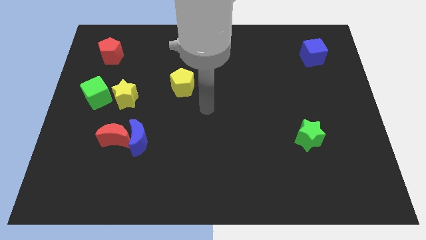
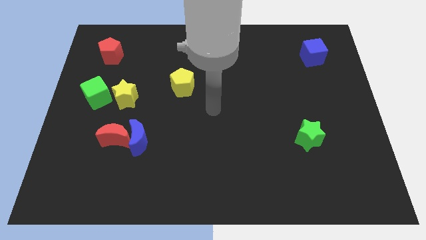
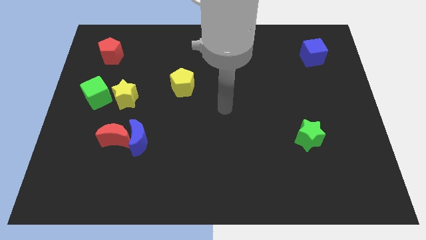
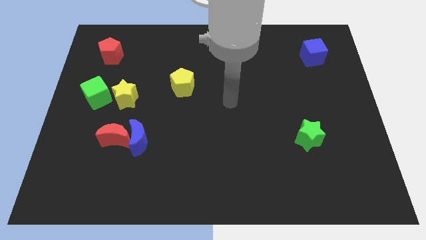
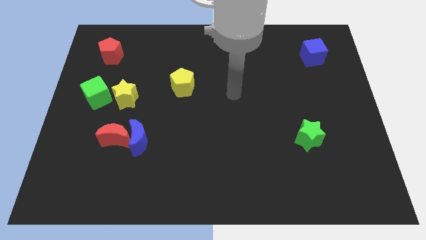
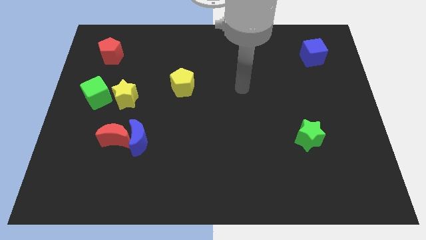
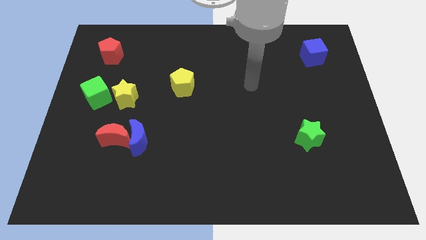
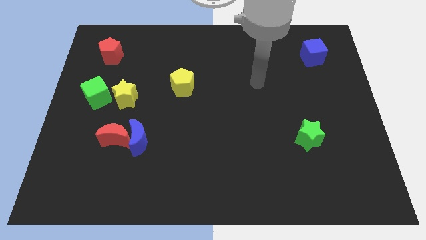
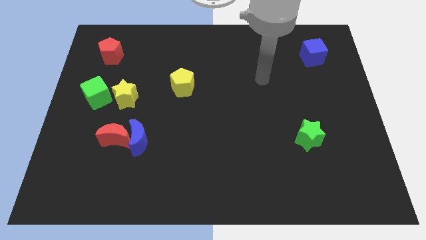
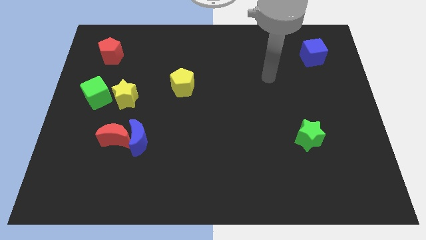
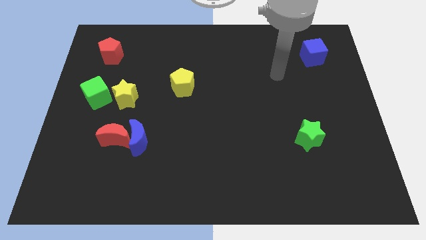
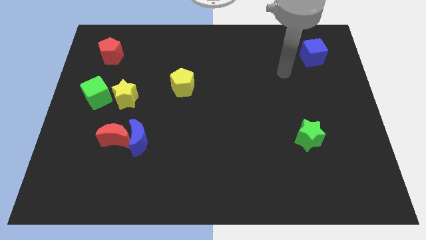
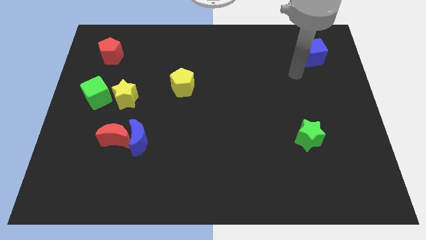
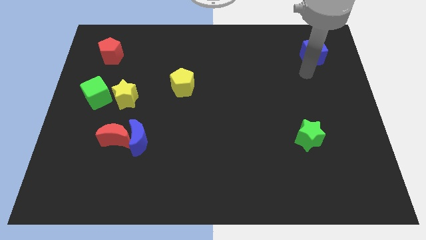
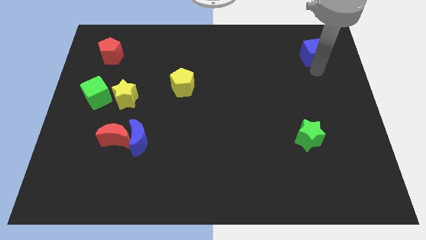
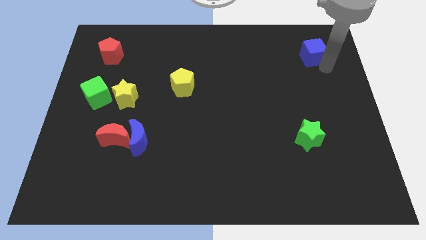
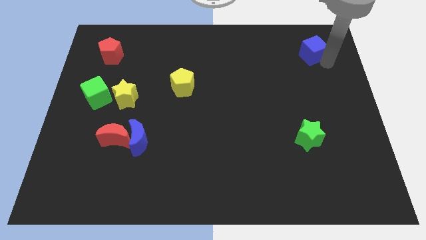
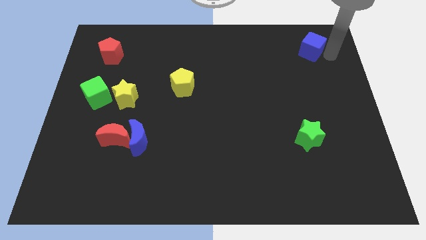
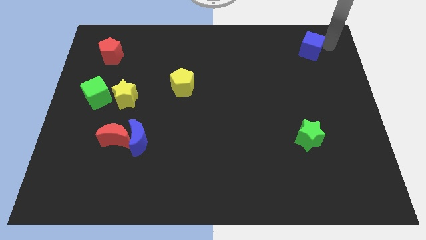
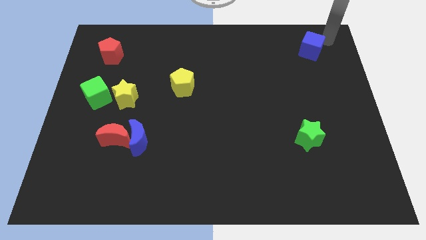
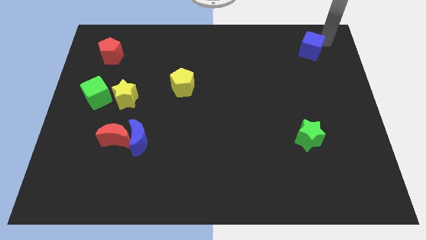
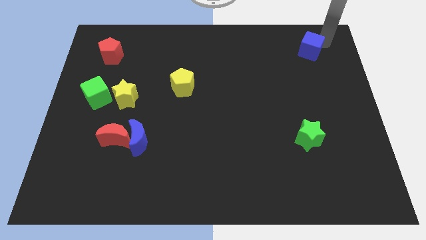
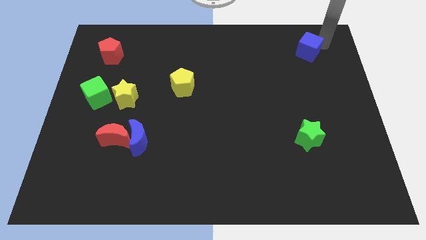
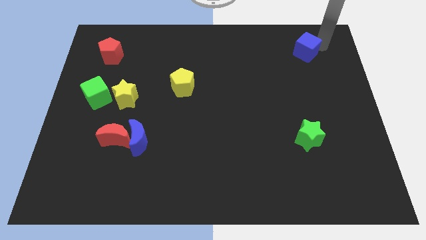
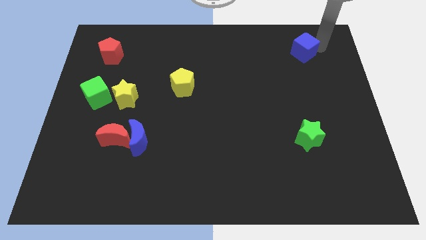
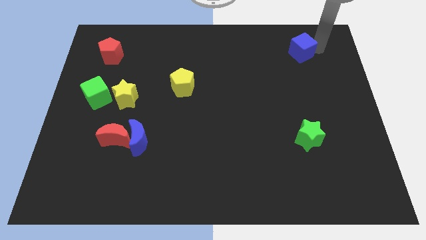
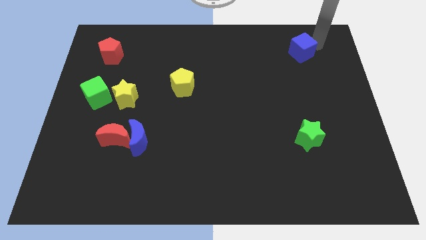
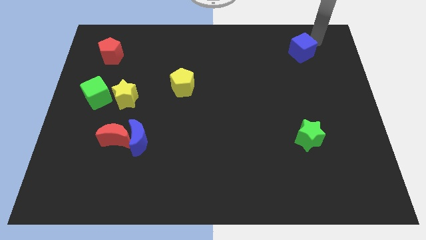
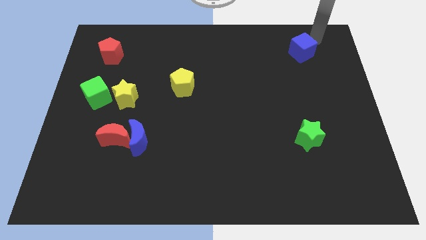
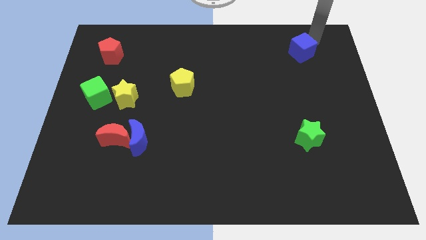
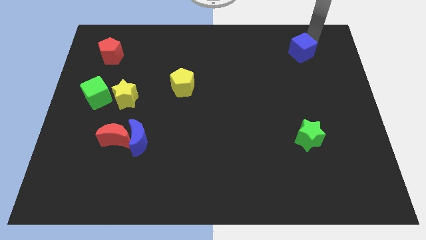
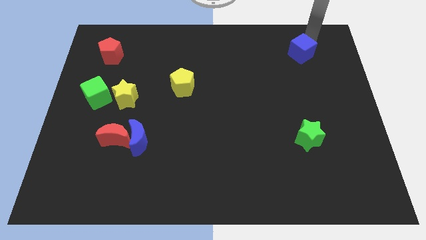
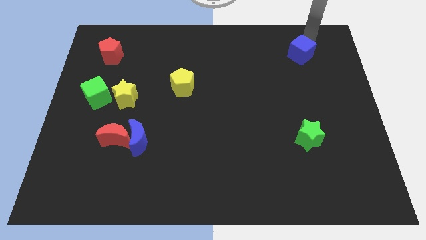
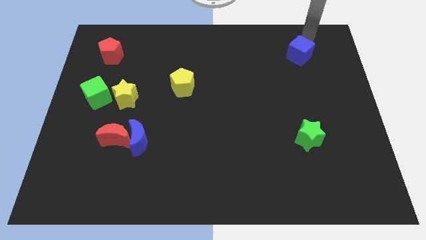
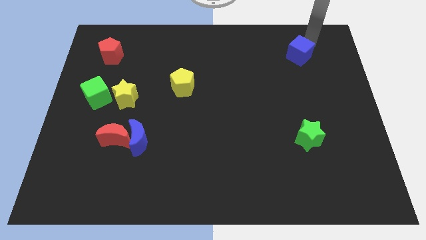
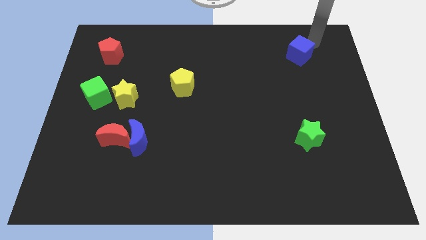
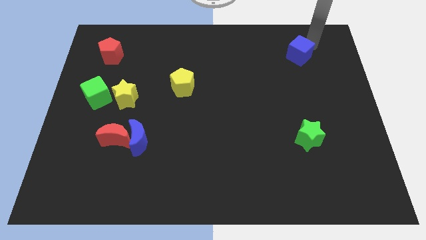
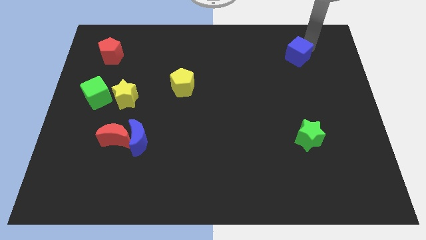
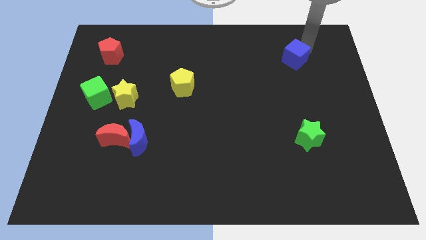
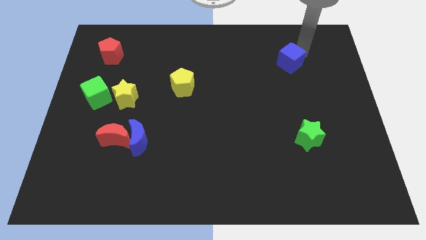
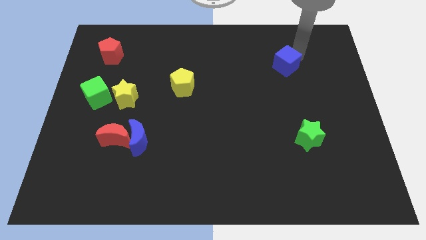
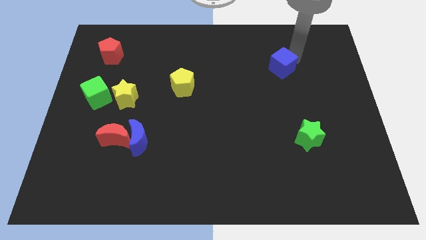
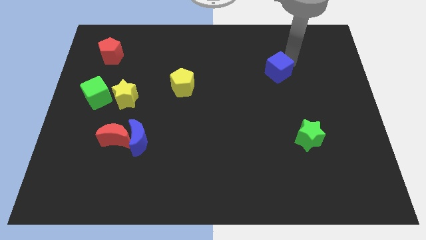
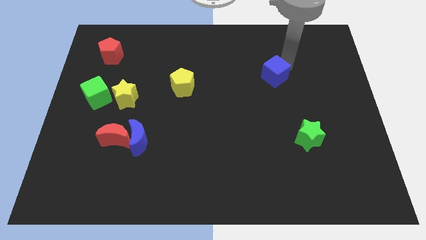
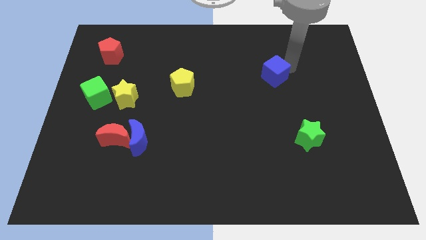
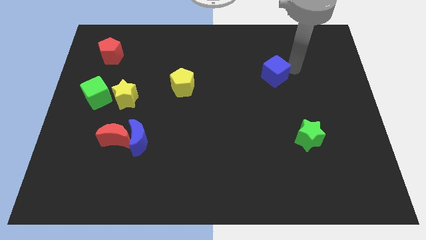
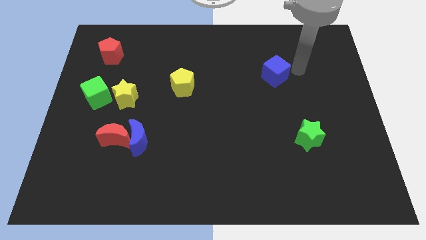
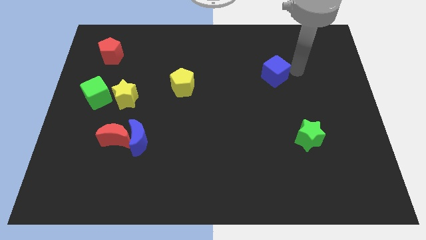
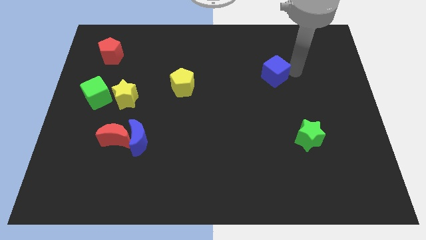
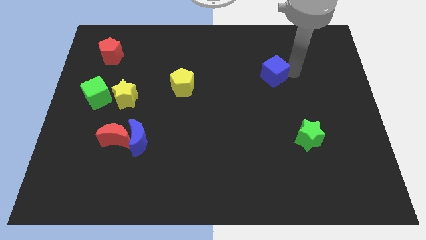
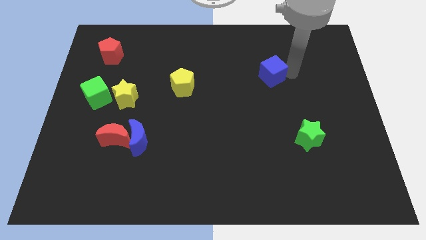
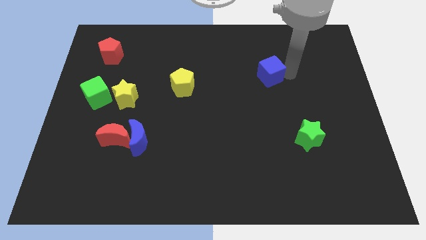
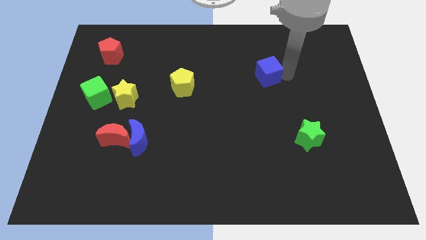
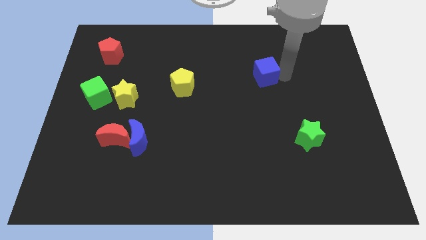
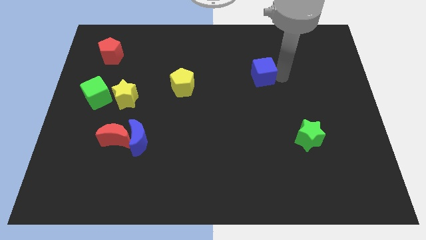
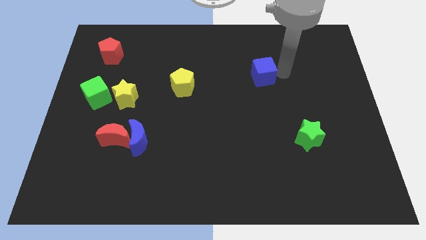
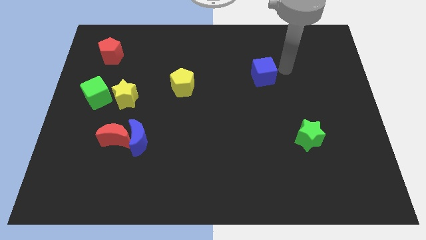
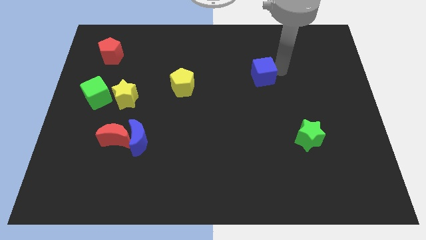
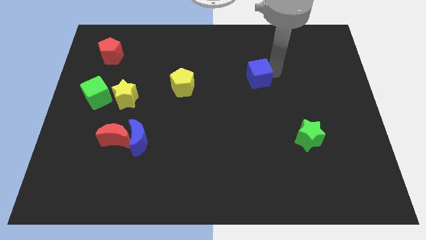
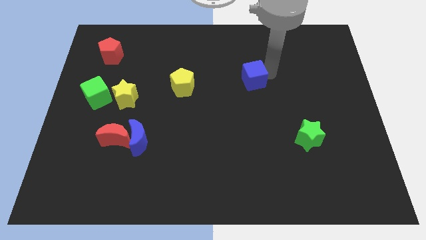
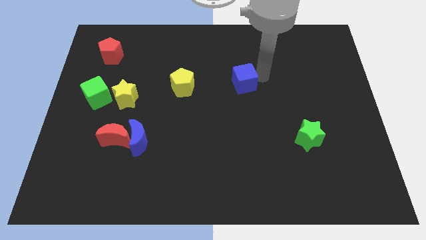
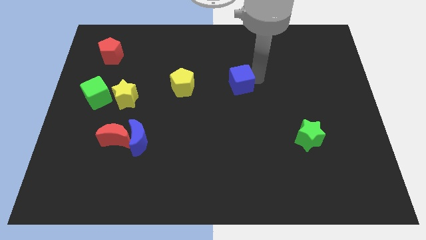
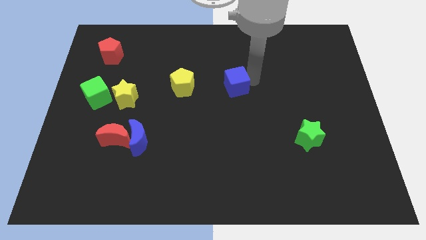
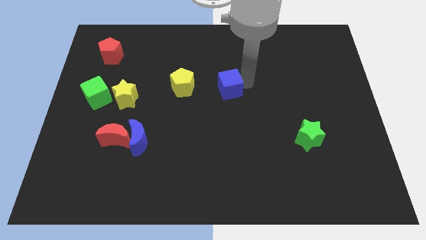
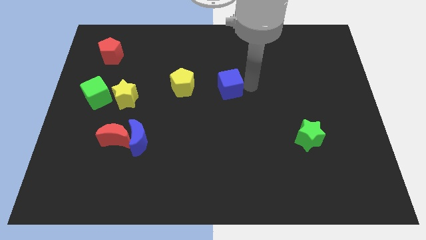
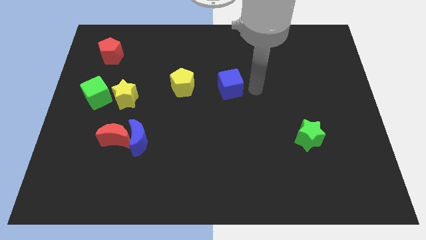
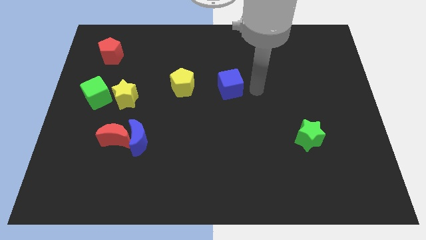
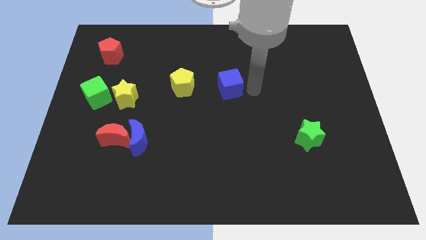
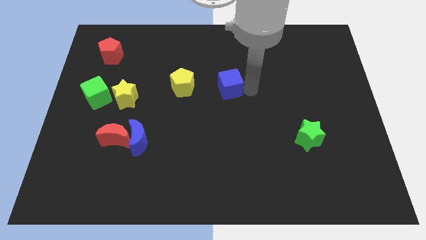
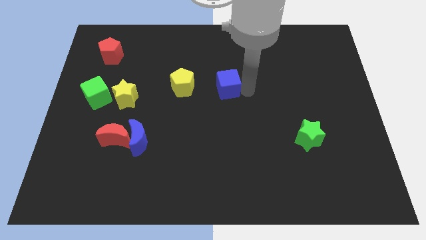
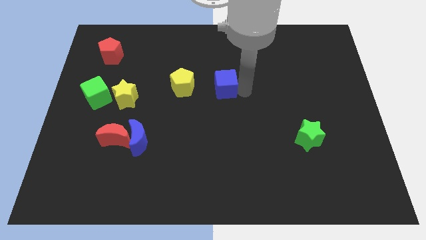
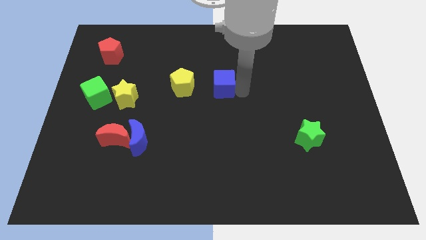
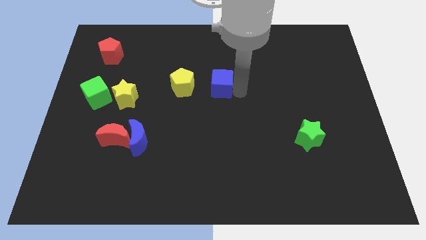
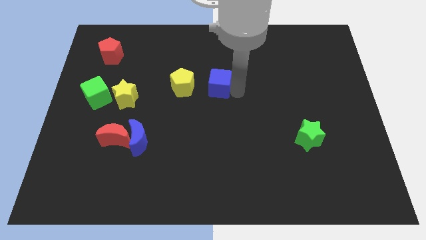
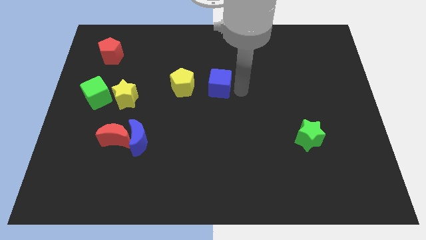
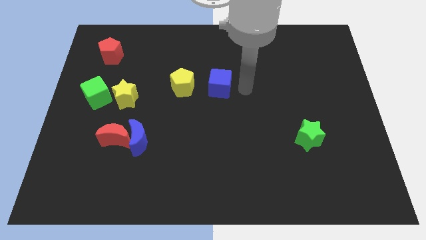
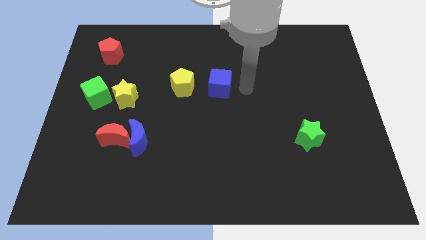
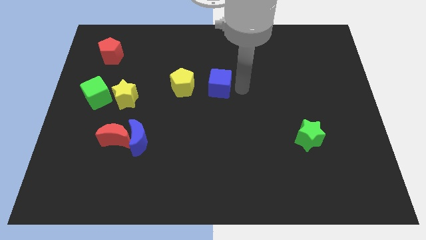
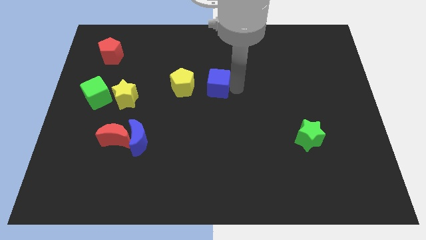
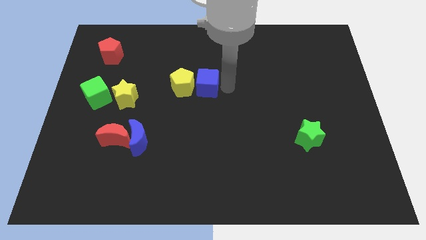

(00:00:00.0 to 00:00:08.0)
put the blue cube next to the yellow pentagon
